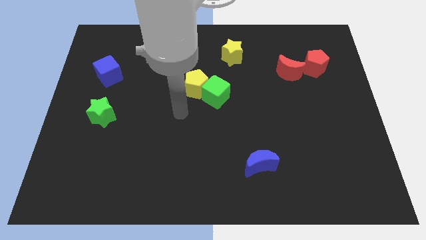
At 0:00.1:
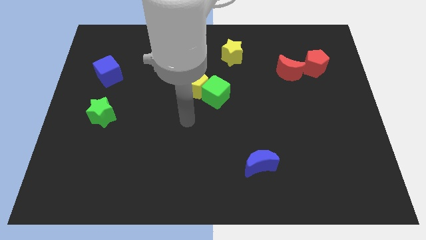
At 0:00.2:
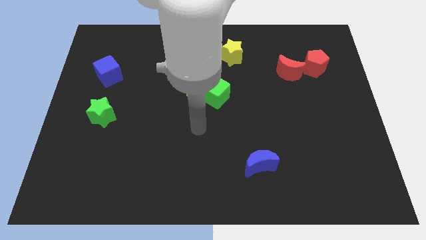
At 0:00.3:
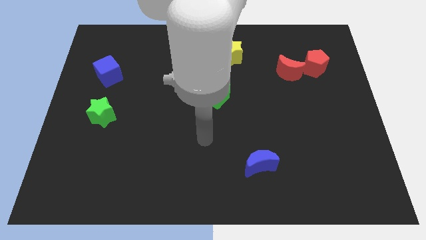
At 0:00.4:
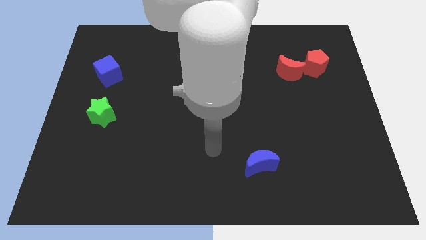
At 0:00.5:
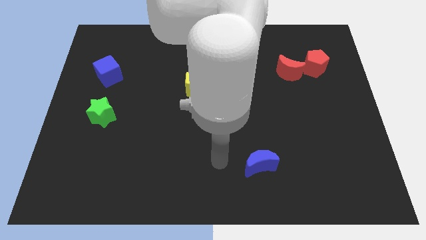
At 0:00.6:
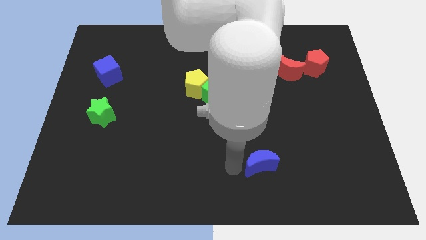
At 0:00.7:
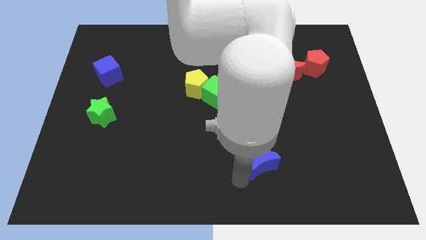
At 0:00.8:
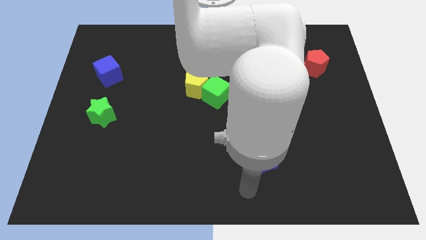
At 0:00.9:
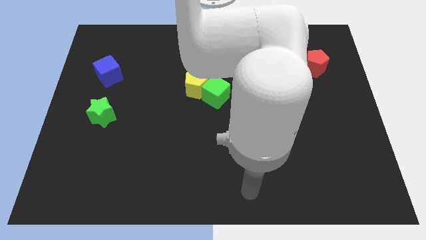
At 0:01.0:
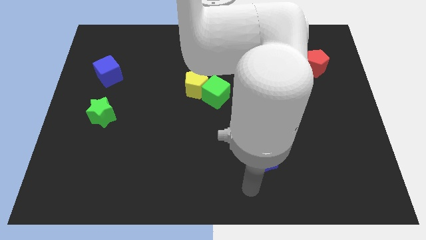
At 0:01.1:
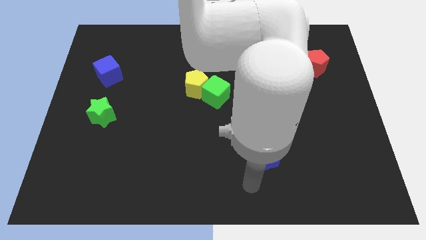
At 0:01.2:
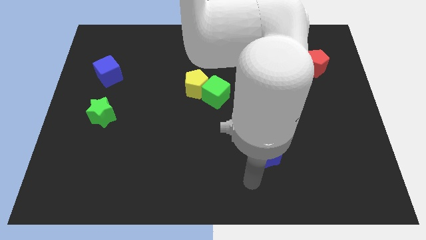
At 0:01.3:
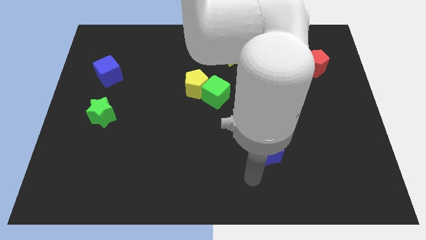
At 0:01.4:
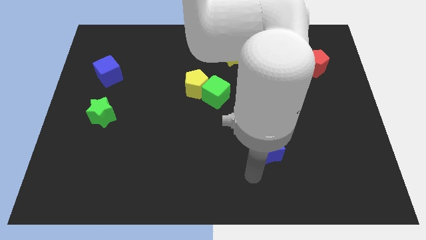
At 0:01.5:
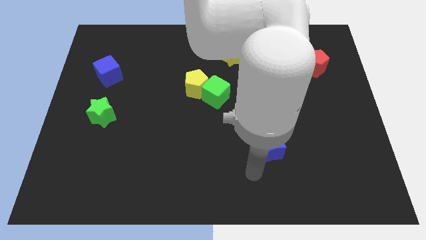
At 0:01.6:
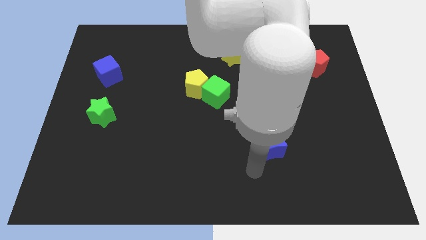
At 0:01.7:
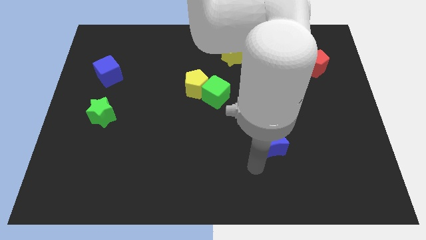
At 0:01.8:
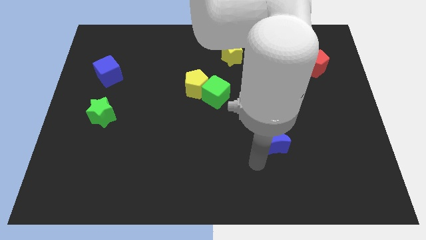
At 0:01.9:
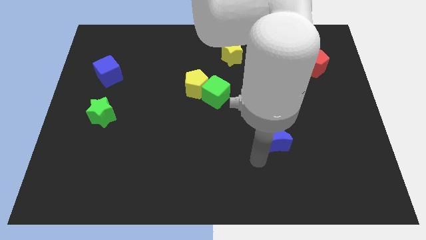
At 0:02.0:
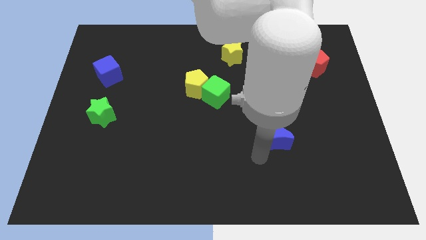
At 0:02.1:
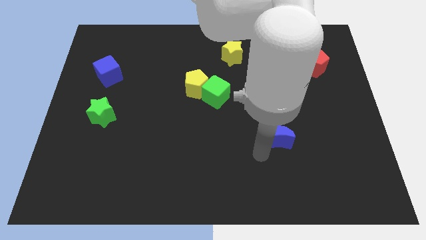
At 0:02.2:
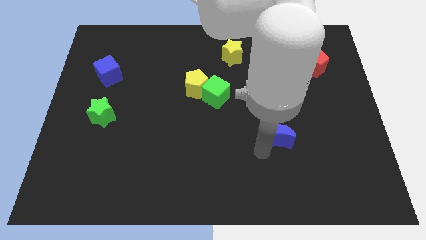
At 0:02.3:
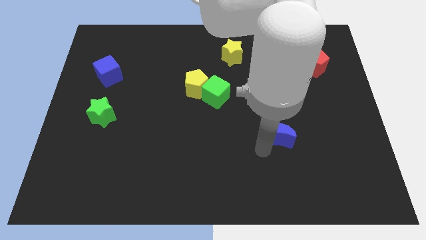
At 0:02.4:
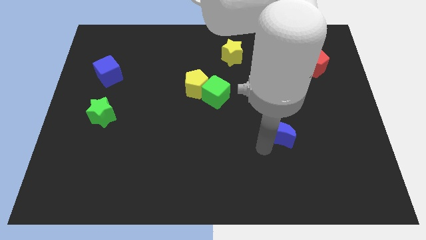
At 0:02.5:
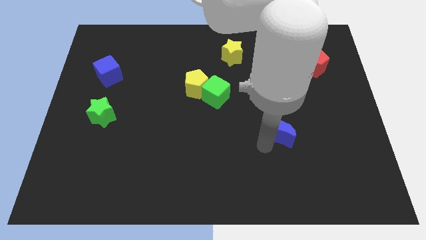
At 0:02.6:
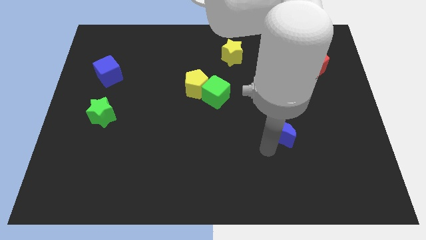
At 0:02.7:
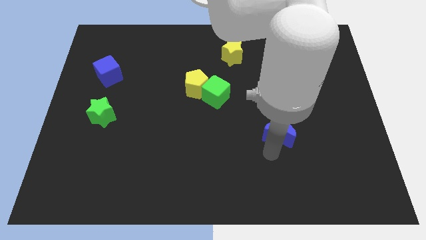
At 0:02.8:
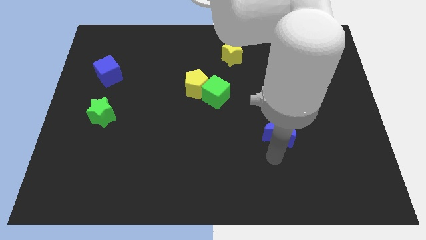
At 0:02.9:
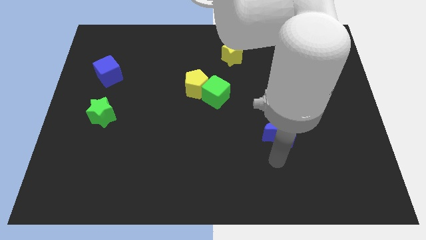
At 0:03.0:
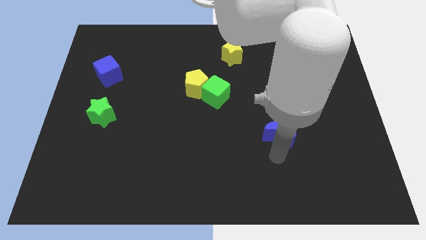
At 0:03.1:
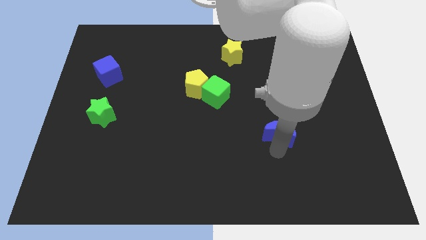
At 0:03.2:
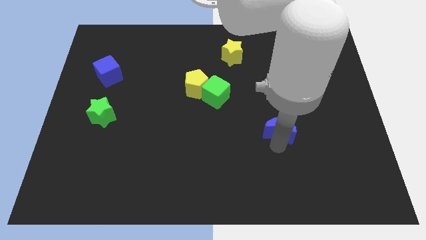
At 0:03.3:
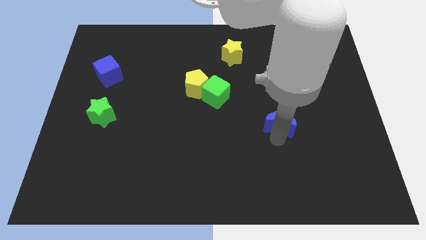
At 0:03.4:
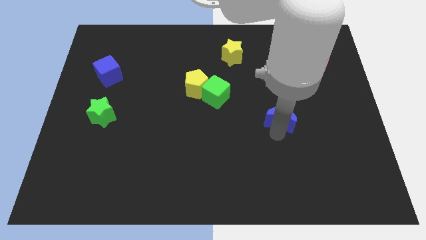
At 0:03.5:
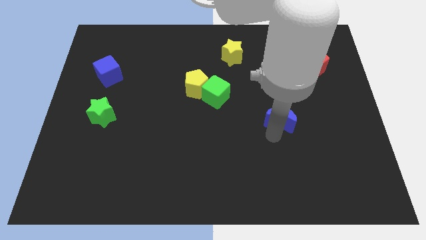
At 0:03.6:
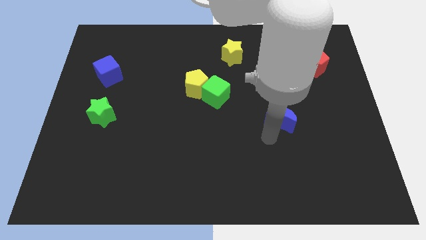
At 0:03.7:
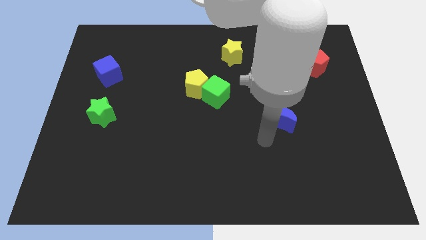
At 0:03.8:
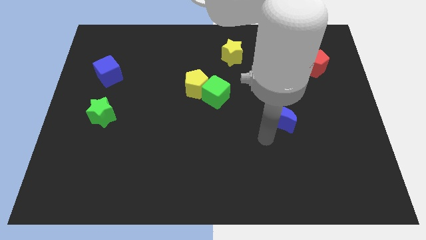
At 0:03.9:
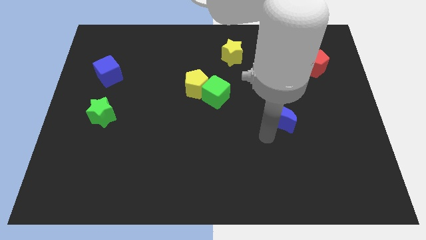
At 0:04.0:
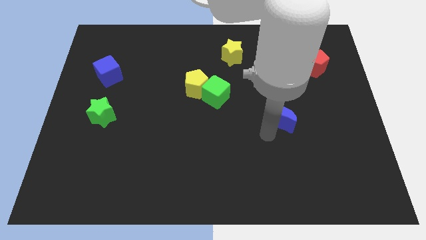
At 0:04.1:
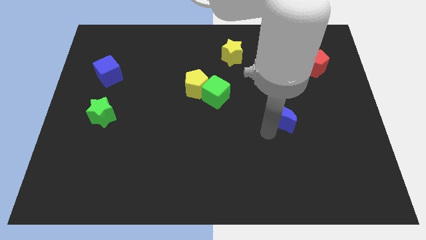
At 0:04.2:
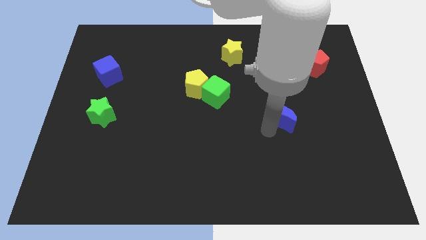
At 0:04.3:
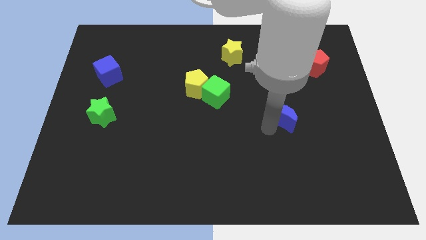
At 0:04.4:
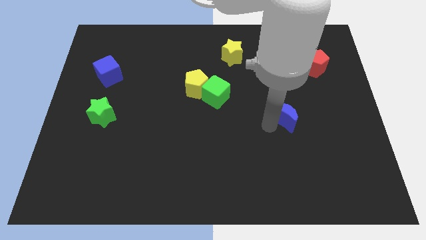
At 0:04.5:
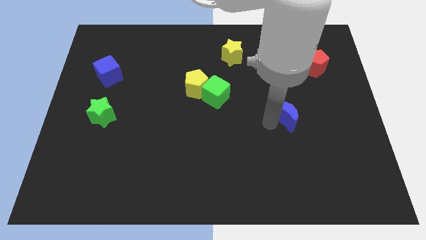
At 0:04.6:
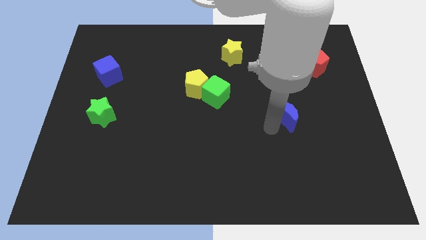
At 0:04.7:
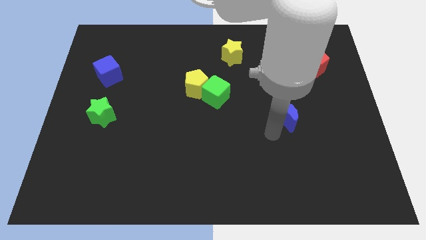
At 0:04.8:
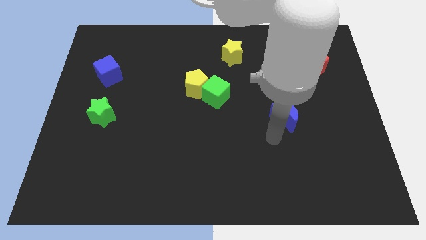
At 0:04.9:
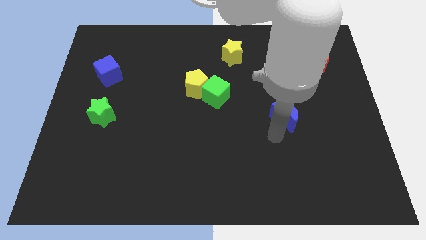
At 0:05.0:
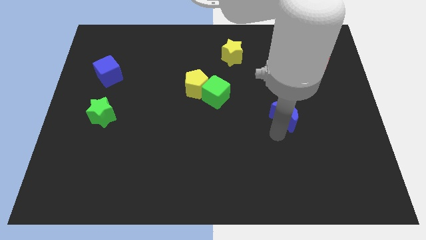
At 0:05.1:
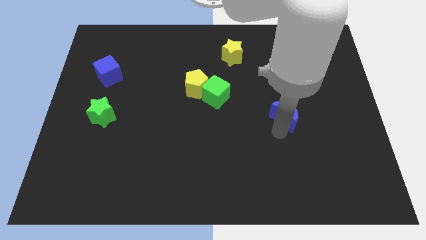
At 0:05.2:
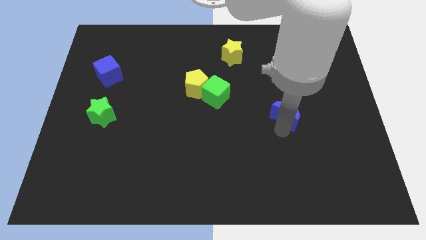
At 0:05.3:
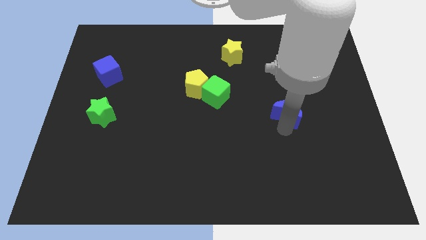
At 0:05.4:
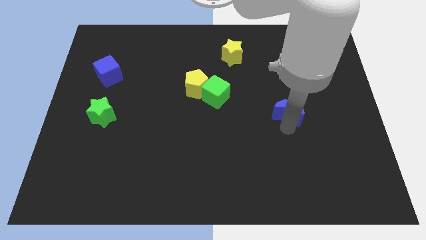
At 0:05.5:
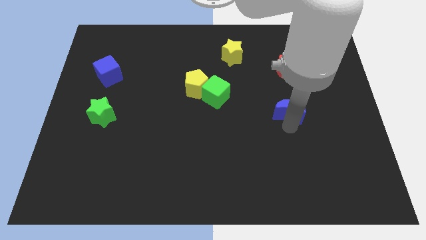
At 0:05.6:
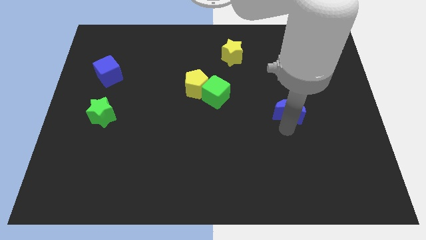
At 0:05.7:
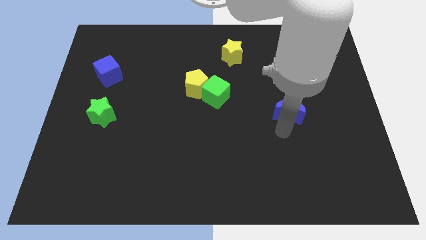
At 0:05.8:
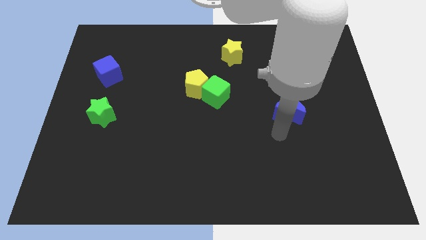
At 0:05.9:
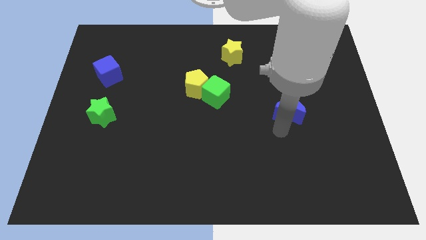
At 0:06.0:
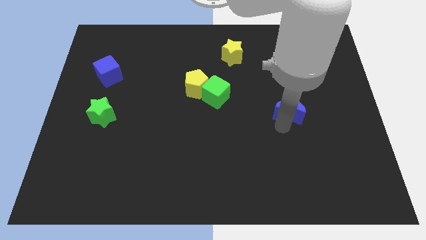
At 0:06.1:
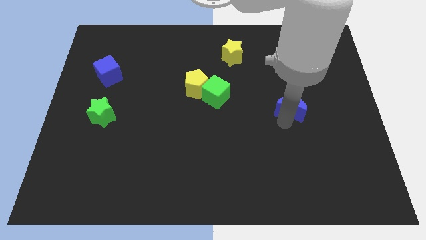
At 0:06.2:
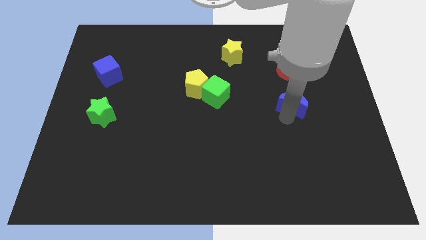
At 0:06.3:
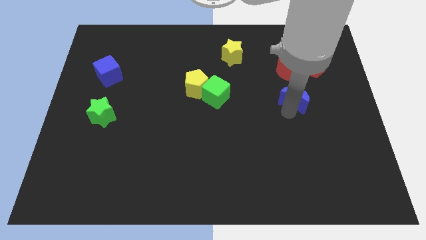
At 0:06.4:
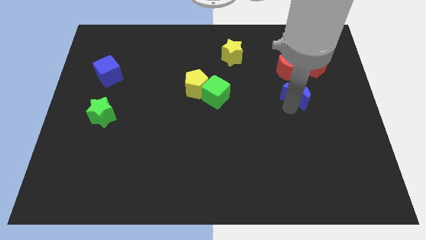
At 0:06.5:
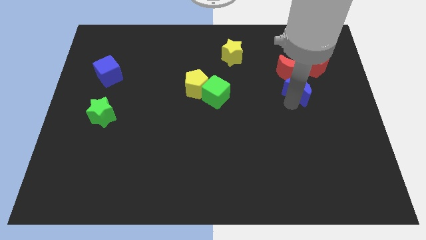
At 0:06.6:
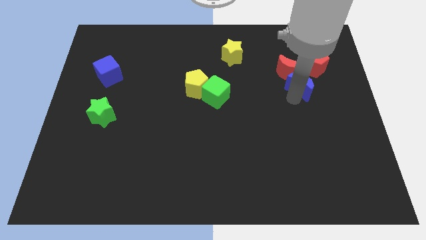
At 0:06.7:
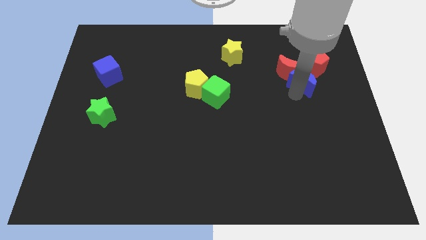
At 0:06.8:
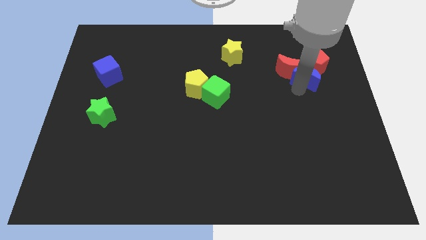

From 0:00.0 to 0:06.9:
put the blue moon next to the red pentagon

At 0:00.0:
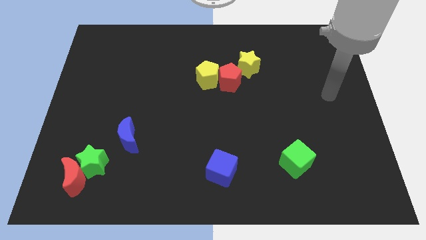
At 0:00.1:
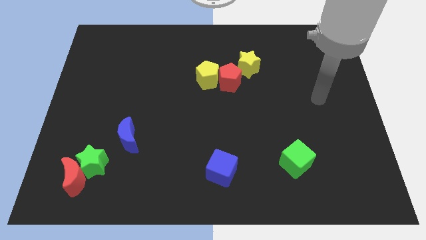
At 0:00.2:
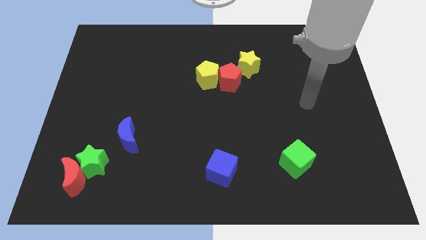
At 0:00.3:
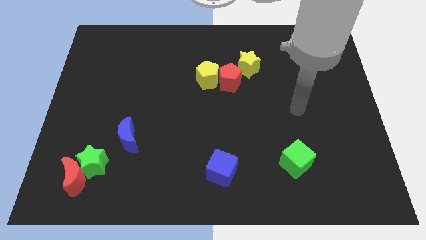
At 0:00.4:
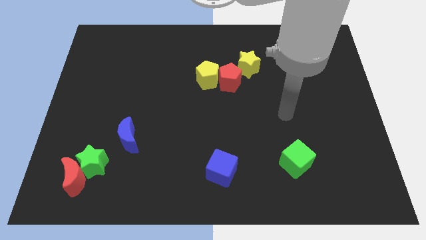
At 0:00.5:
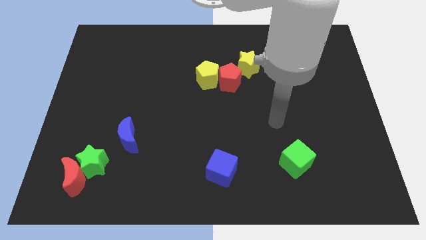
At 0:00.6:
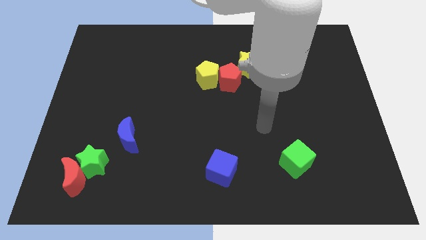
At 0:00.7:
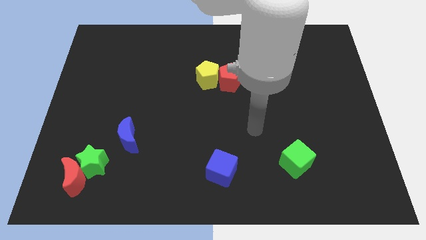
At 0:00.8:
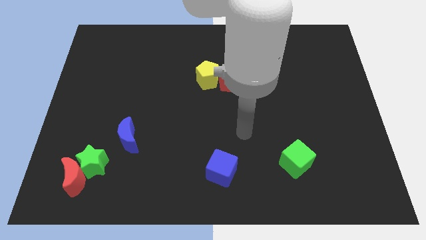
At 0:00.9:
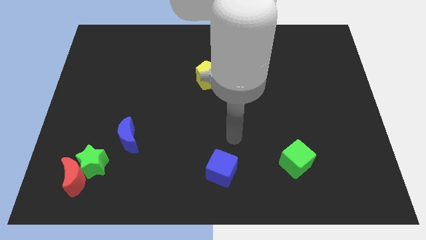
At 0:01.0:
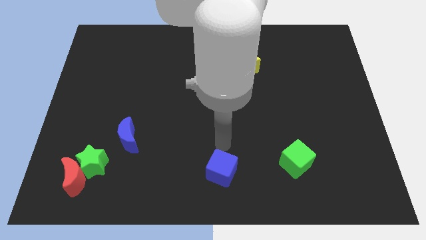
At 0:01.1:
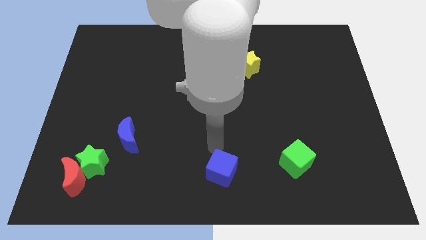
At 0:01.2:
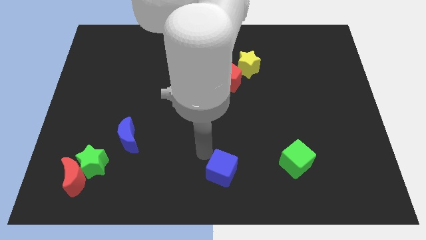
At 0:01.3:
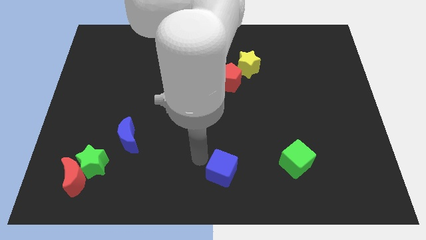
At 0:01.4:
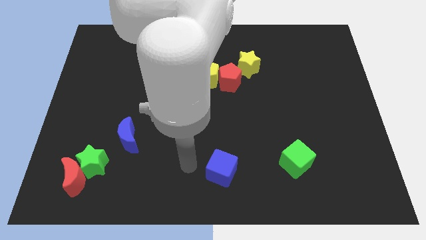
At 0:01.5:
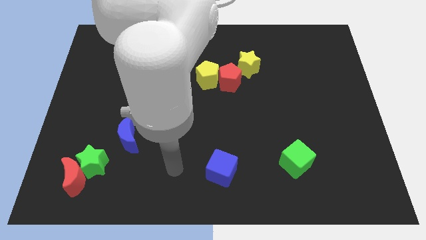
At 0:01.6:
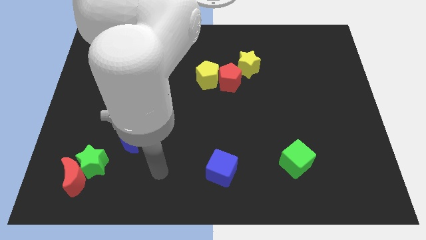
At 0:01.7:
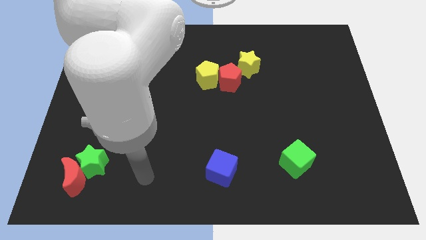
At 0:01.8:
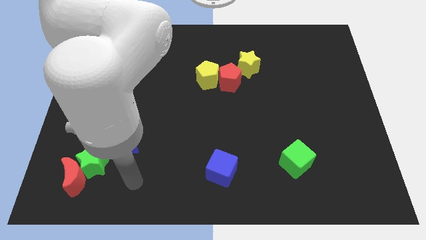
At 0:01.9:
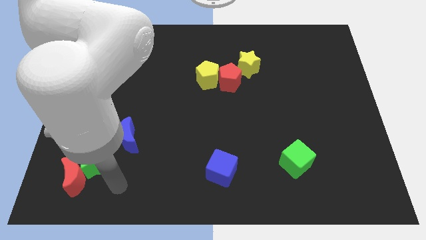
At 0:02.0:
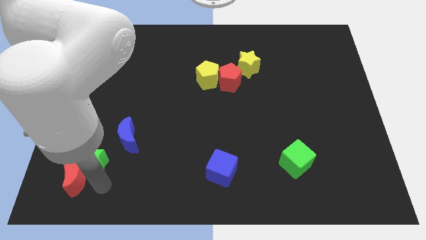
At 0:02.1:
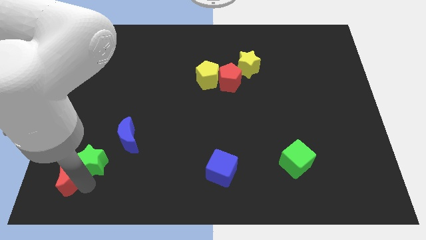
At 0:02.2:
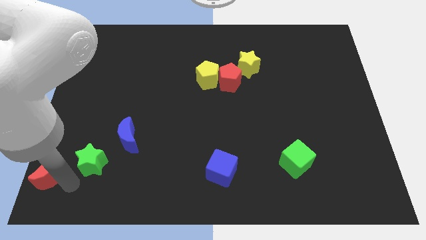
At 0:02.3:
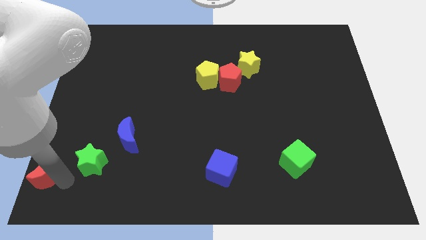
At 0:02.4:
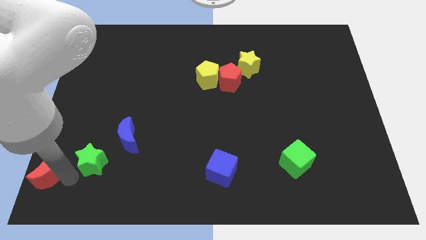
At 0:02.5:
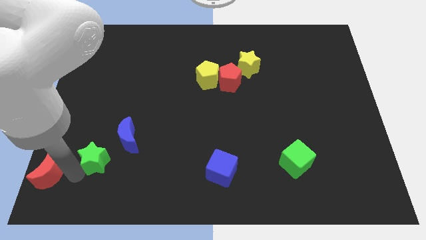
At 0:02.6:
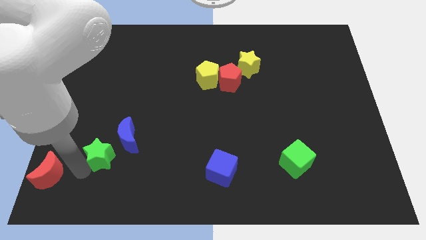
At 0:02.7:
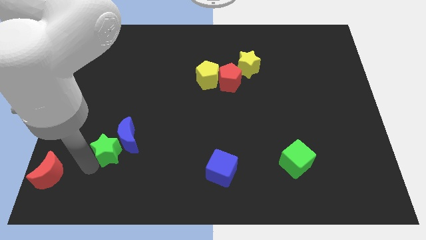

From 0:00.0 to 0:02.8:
move the green star towards the blue moon
